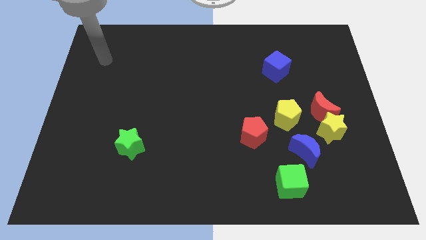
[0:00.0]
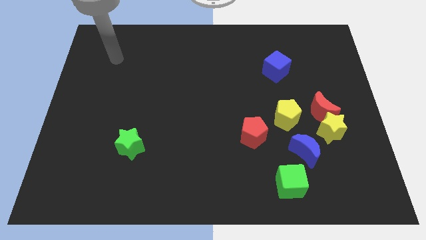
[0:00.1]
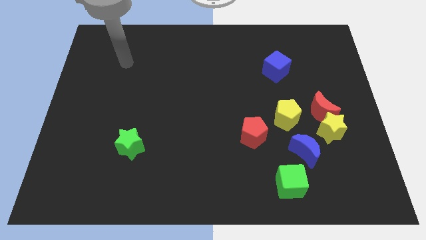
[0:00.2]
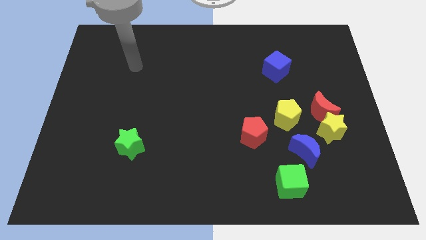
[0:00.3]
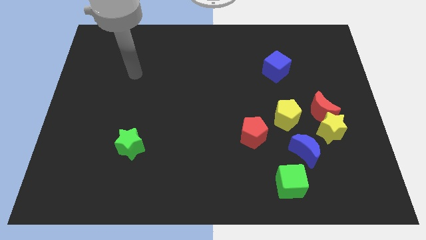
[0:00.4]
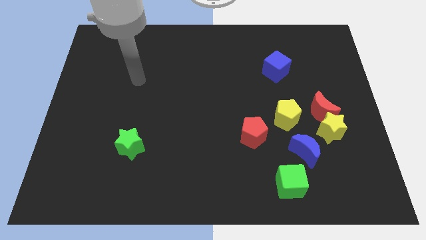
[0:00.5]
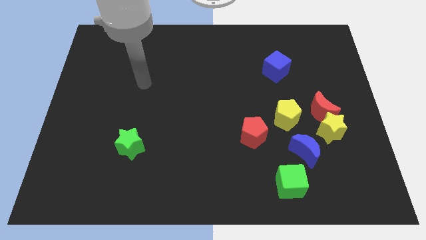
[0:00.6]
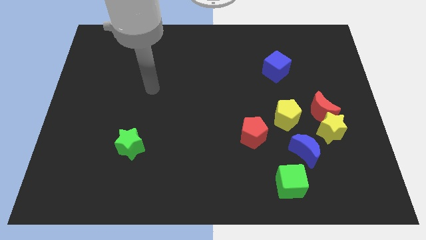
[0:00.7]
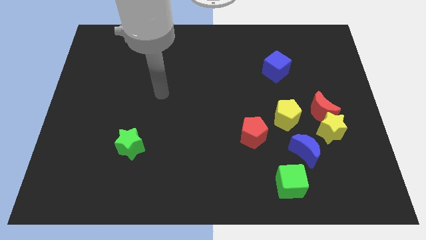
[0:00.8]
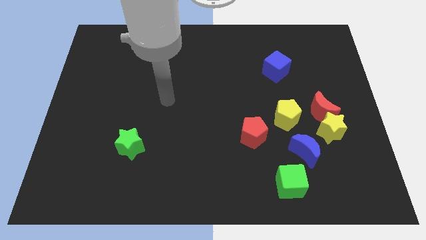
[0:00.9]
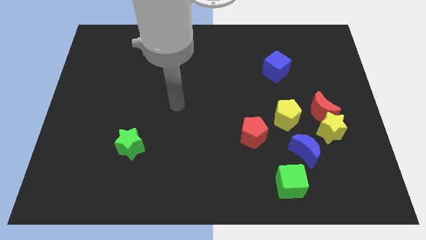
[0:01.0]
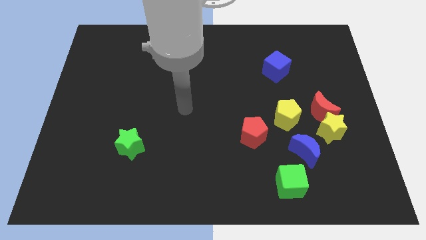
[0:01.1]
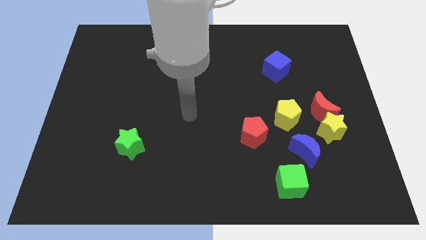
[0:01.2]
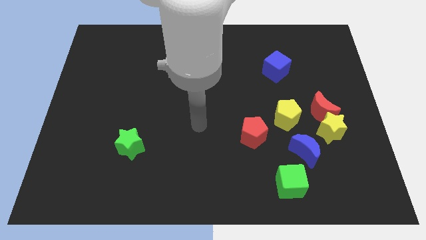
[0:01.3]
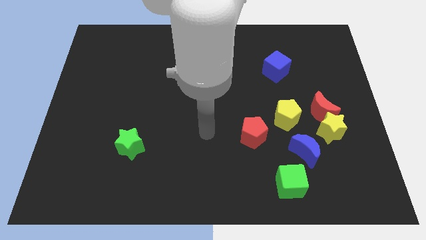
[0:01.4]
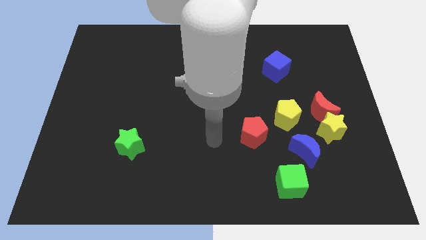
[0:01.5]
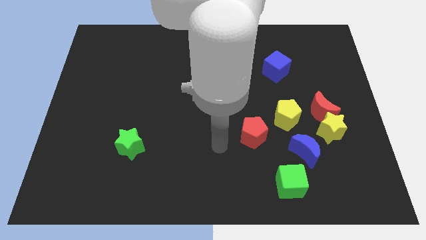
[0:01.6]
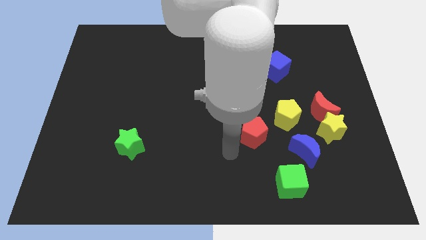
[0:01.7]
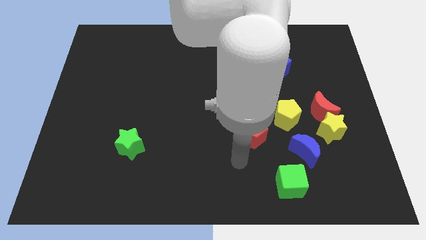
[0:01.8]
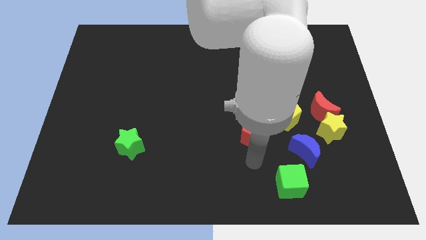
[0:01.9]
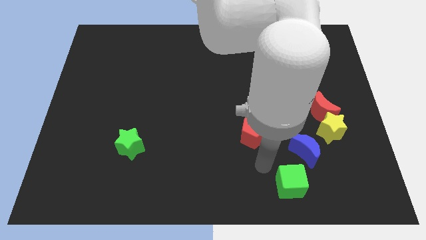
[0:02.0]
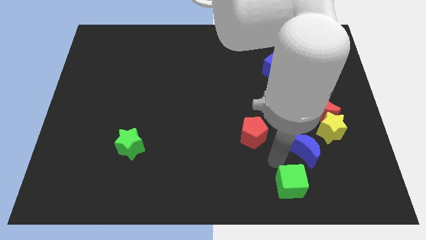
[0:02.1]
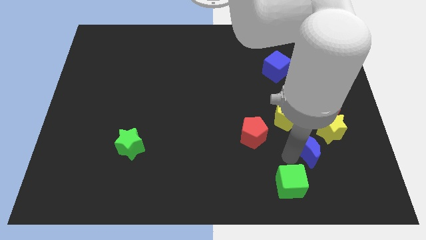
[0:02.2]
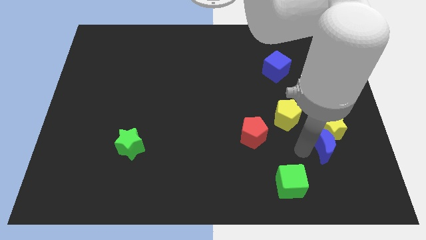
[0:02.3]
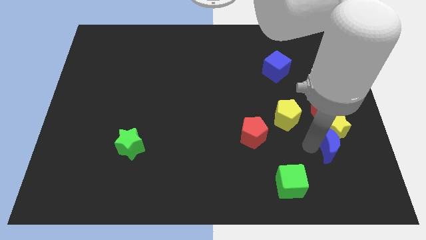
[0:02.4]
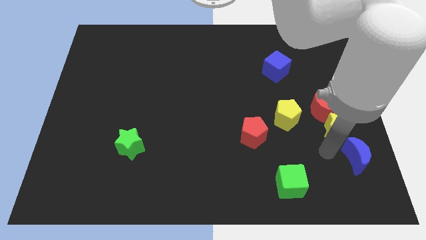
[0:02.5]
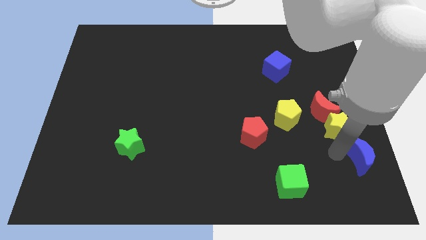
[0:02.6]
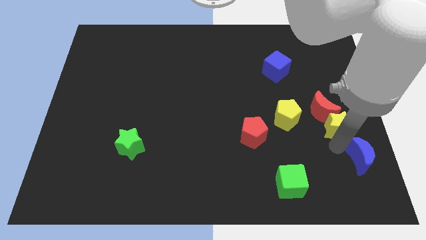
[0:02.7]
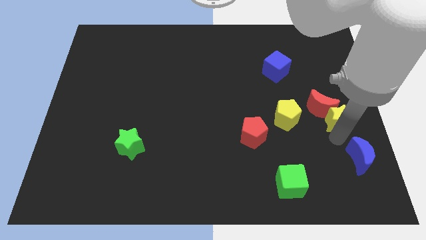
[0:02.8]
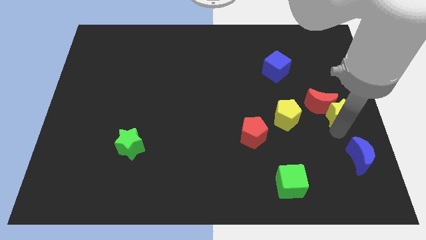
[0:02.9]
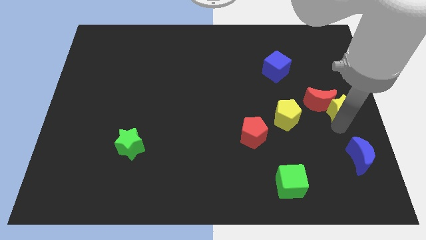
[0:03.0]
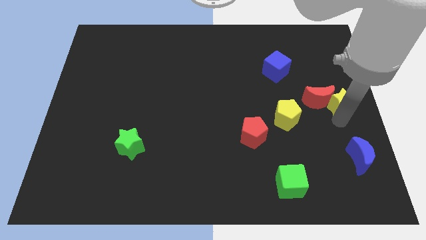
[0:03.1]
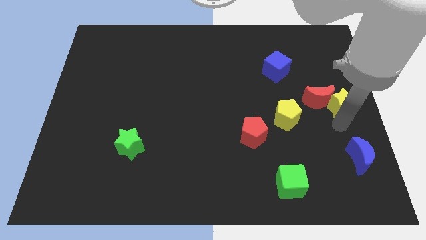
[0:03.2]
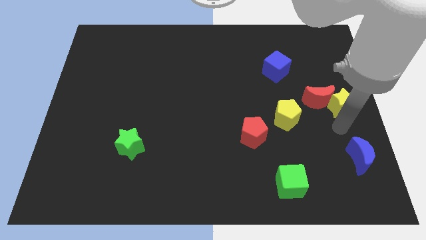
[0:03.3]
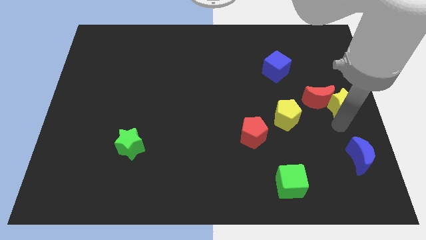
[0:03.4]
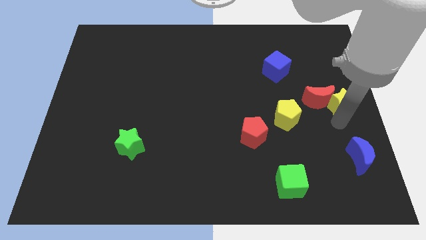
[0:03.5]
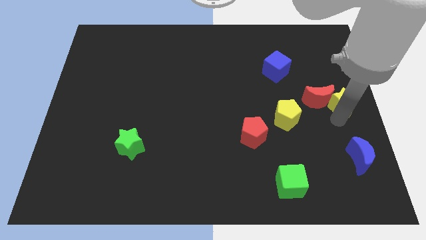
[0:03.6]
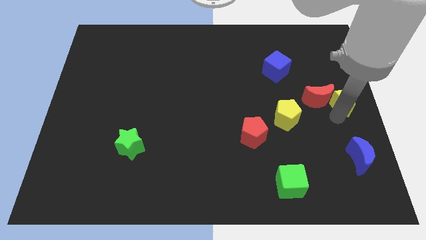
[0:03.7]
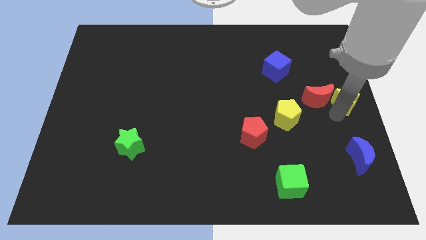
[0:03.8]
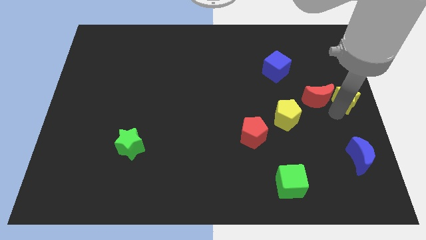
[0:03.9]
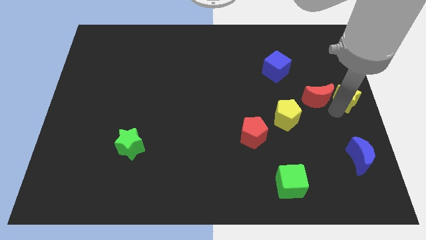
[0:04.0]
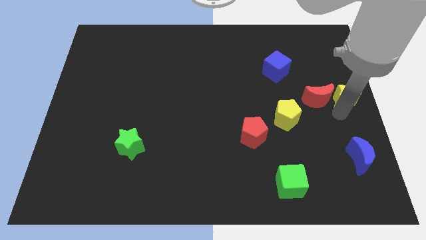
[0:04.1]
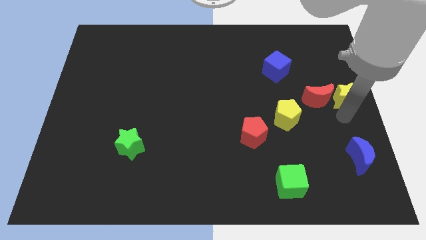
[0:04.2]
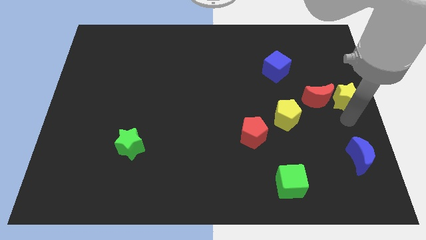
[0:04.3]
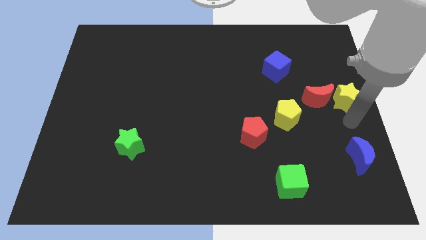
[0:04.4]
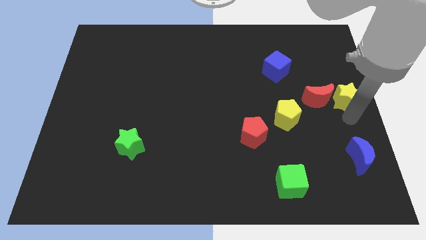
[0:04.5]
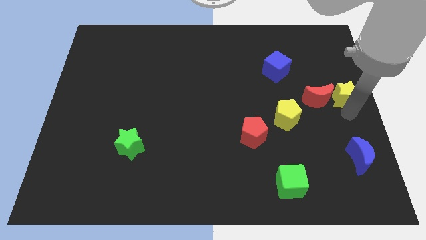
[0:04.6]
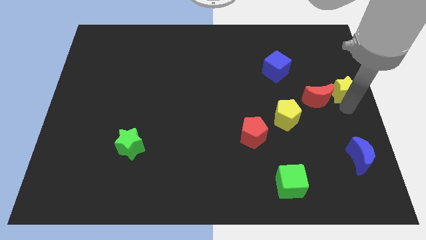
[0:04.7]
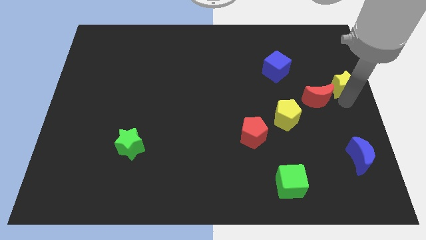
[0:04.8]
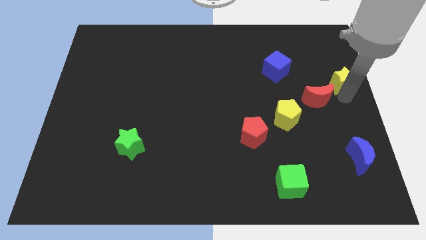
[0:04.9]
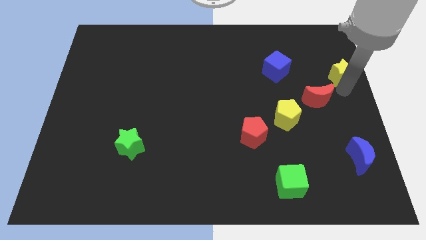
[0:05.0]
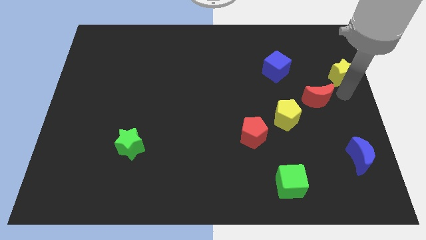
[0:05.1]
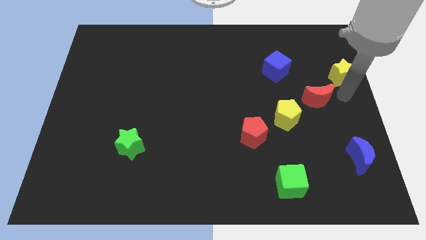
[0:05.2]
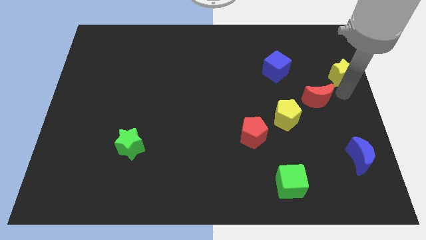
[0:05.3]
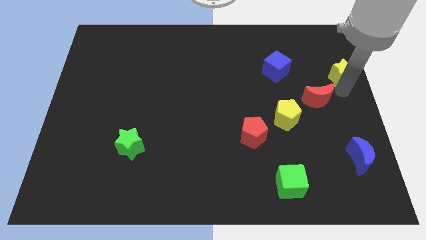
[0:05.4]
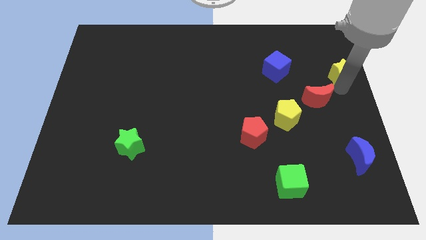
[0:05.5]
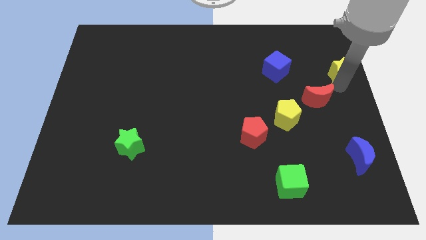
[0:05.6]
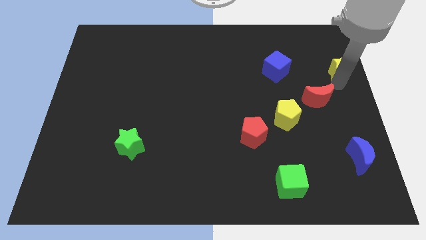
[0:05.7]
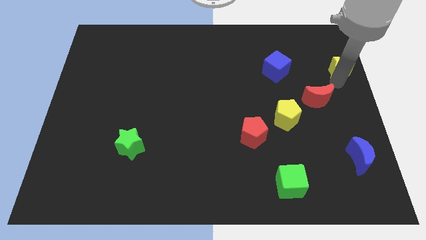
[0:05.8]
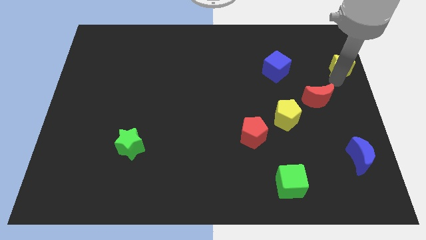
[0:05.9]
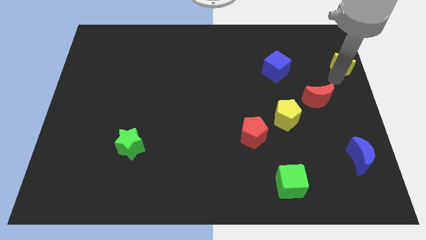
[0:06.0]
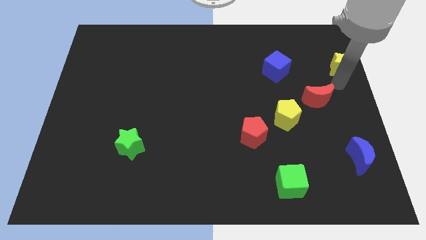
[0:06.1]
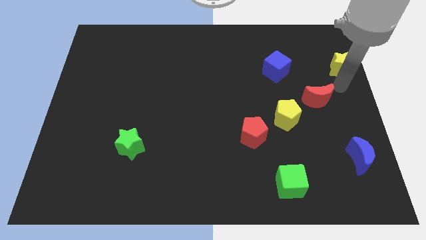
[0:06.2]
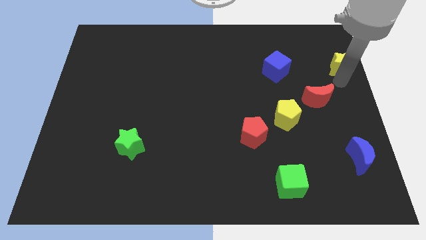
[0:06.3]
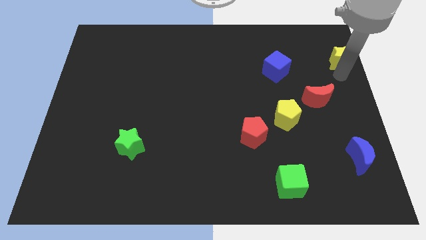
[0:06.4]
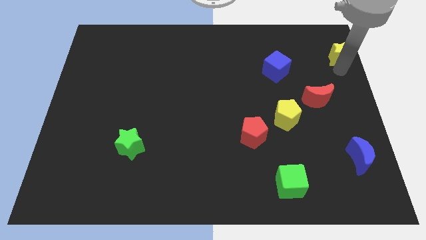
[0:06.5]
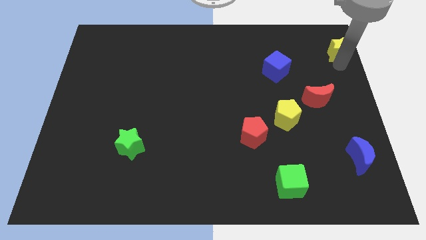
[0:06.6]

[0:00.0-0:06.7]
move the yellow star to the upper right corner

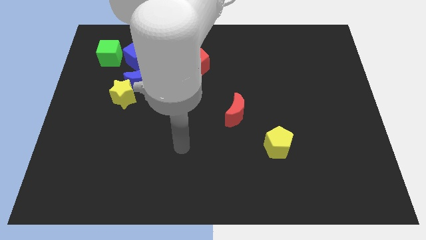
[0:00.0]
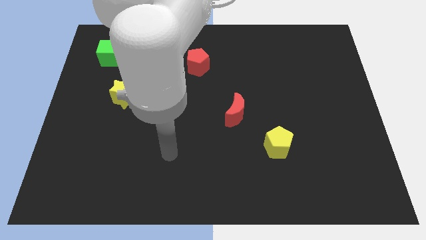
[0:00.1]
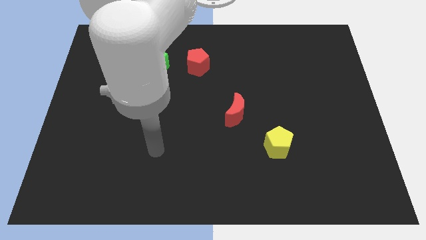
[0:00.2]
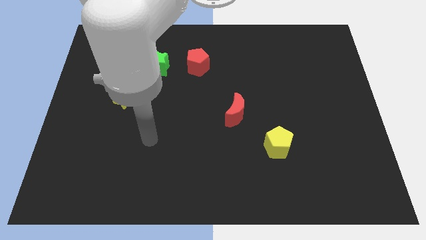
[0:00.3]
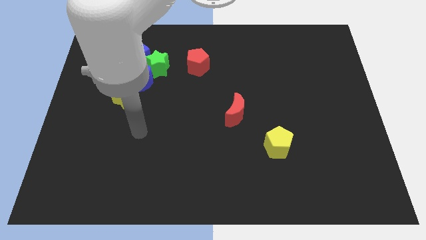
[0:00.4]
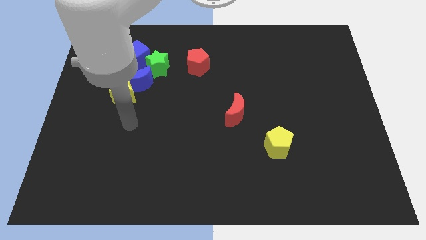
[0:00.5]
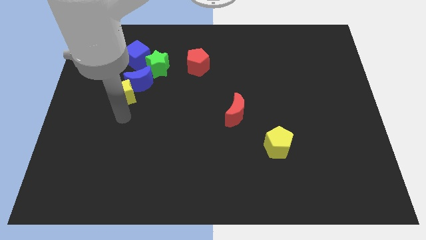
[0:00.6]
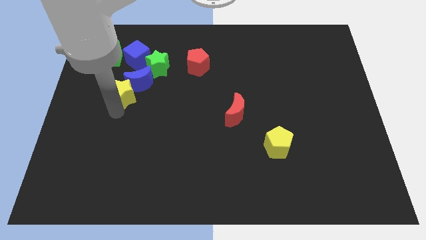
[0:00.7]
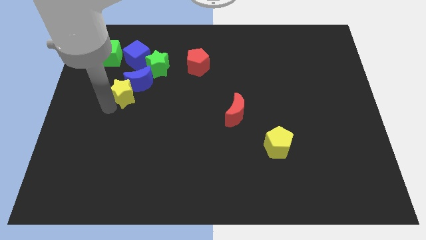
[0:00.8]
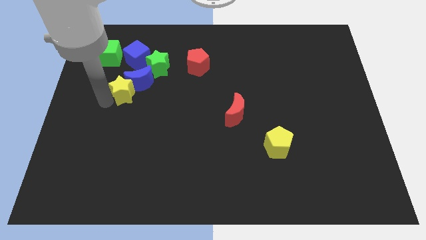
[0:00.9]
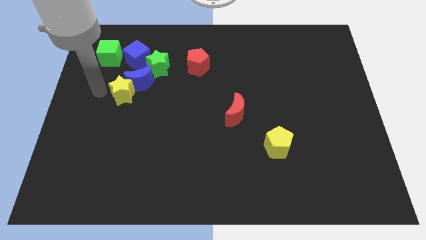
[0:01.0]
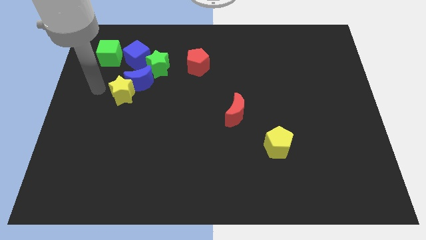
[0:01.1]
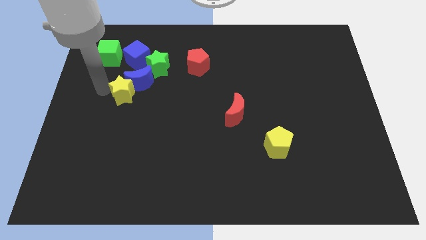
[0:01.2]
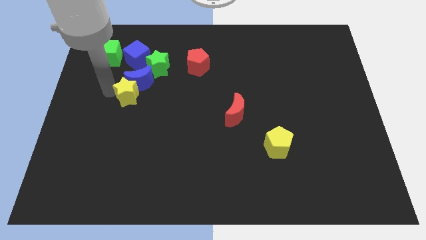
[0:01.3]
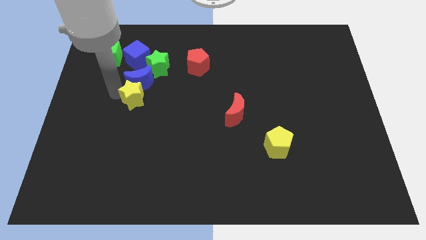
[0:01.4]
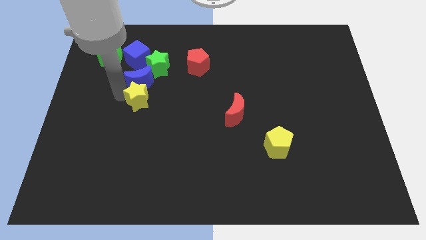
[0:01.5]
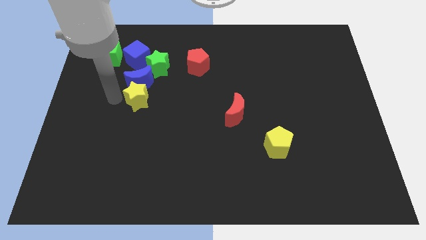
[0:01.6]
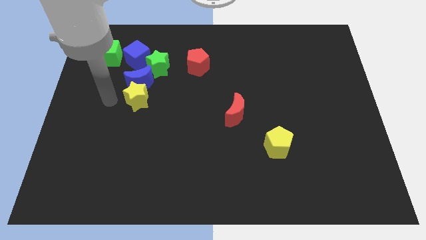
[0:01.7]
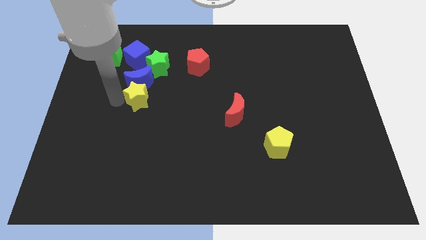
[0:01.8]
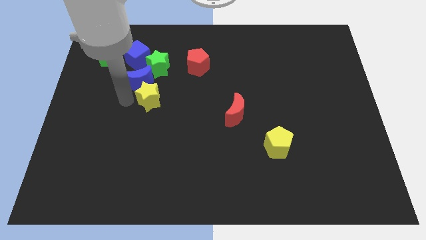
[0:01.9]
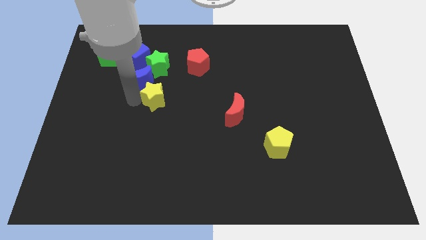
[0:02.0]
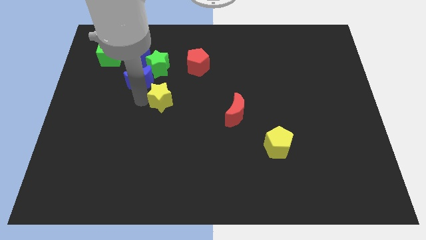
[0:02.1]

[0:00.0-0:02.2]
move the yellow star to the middle
